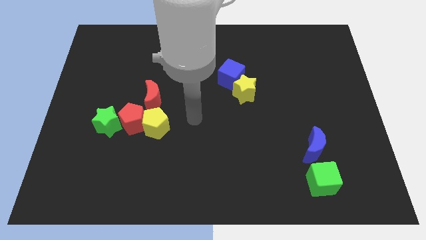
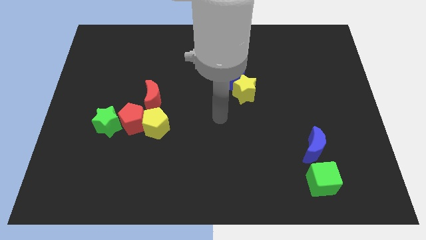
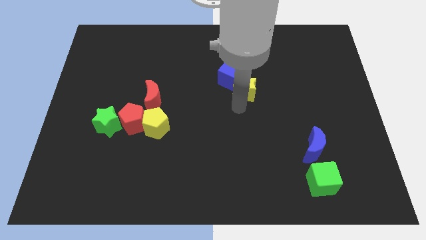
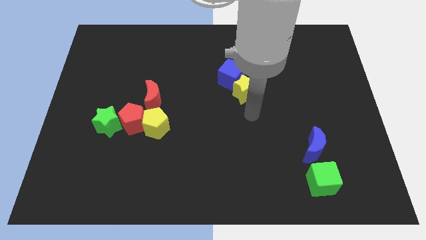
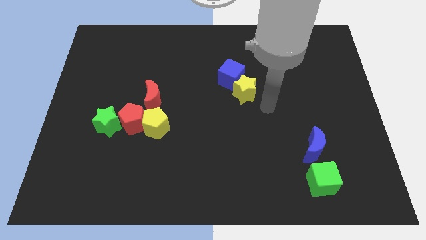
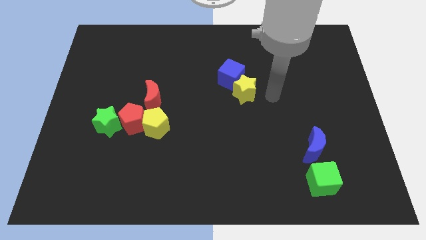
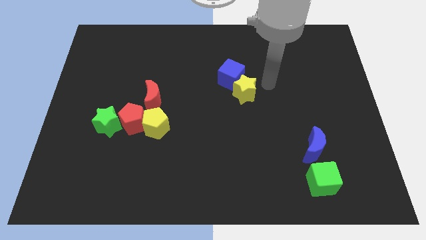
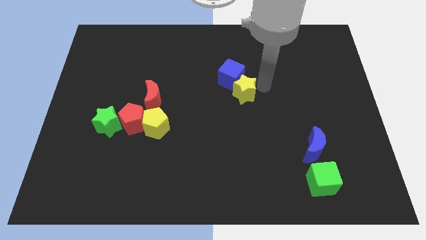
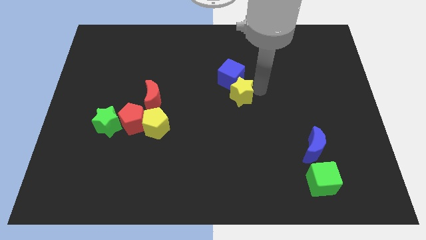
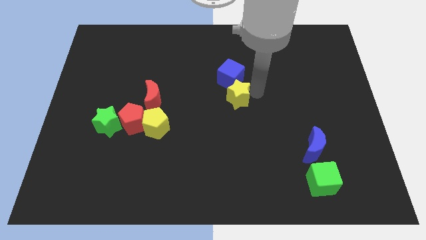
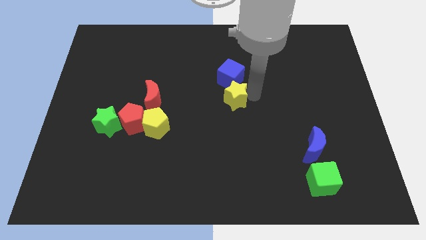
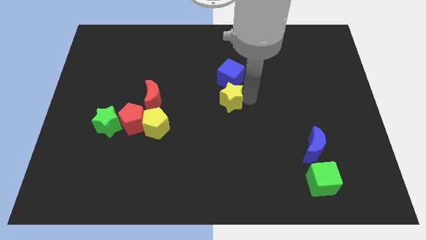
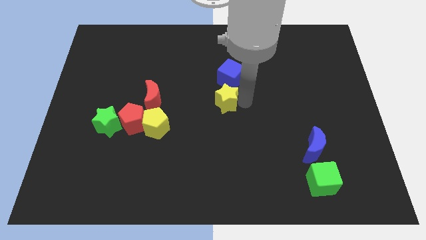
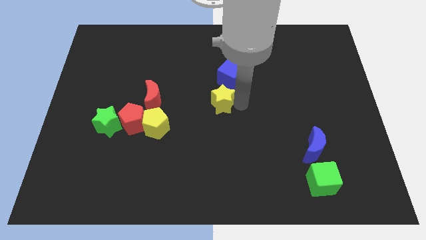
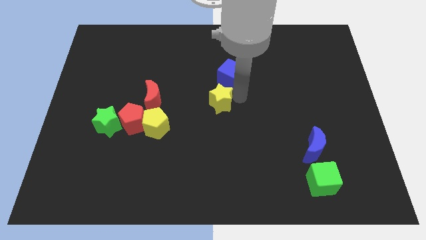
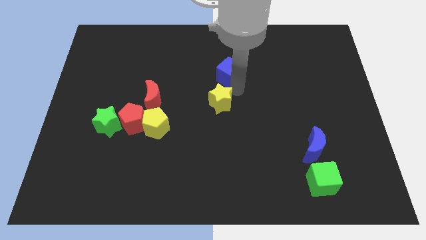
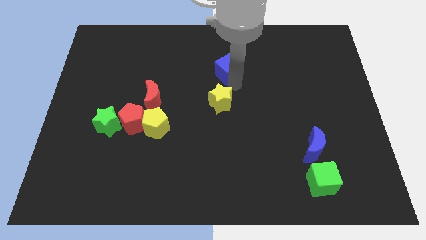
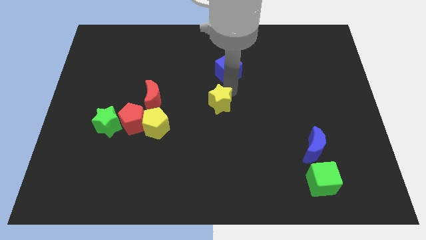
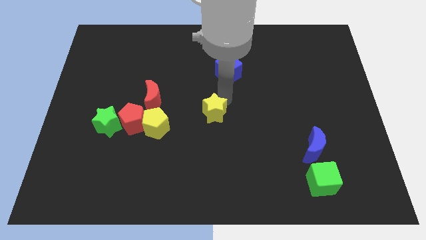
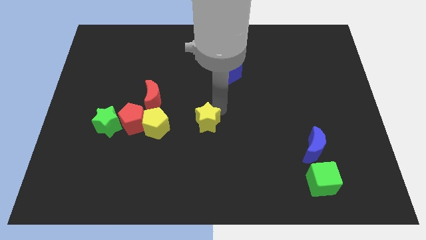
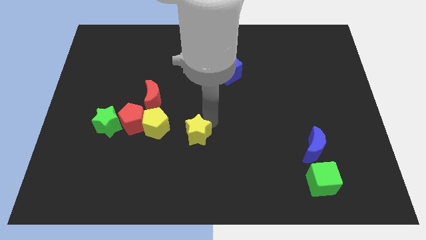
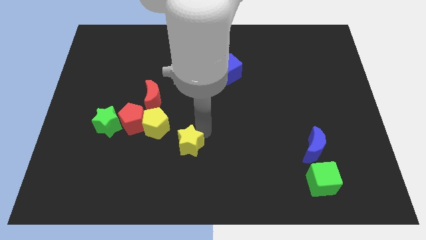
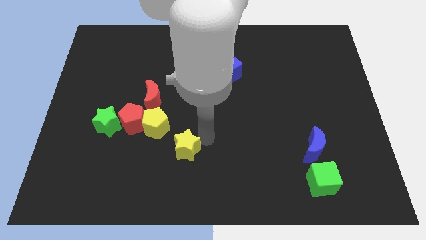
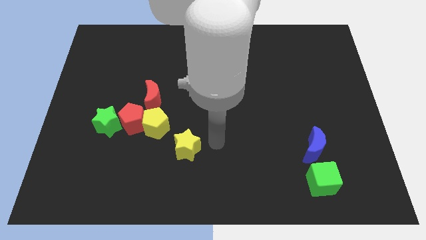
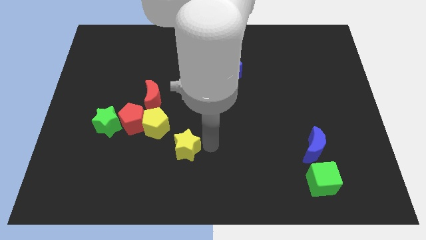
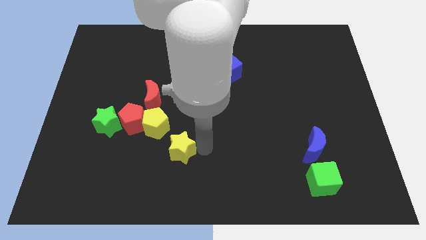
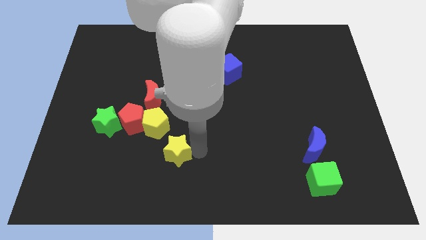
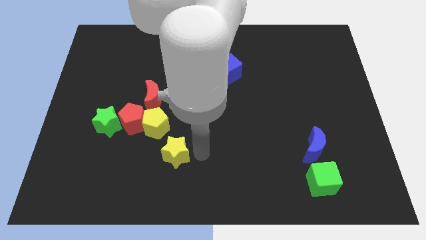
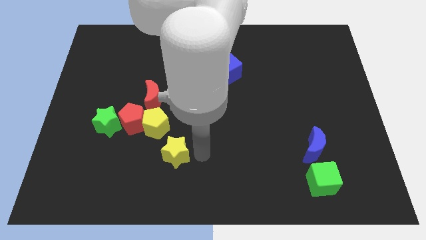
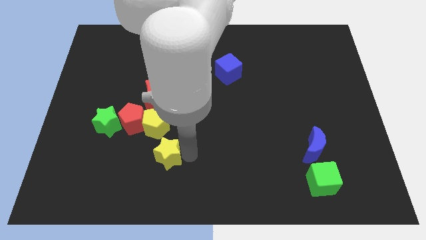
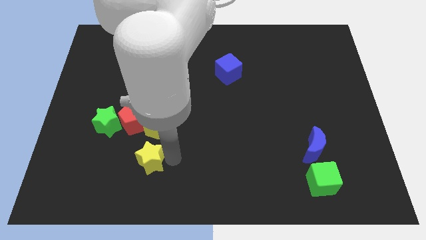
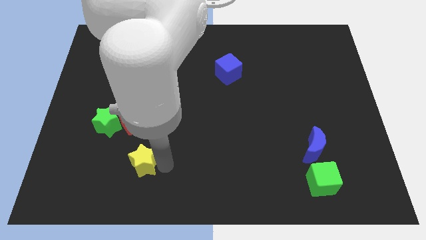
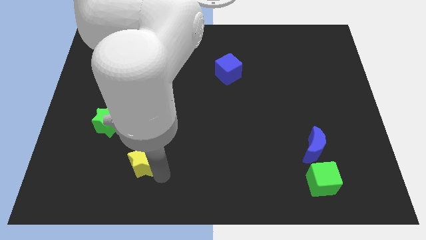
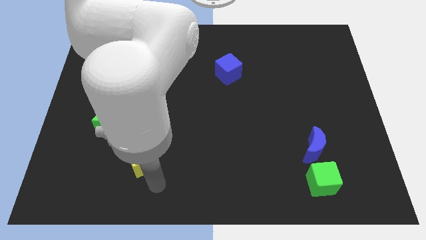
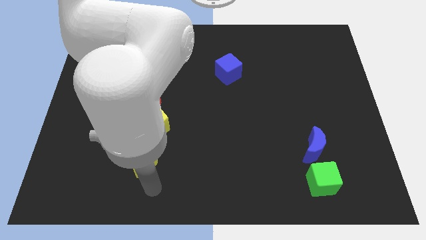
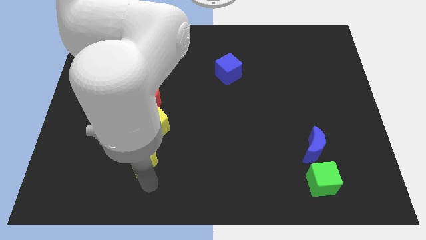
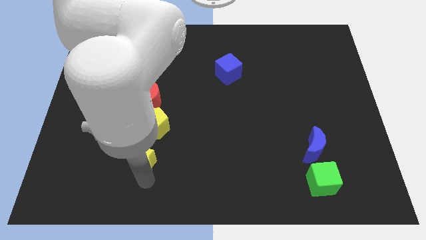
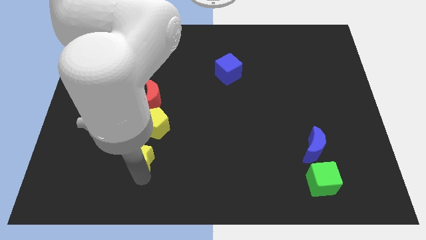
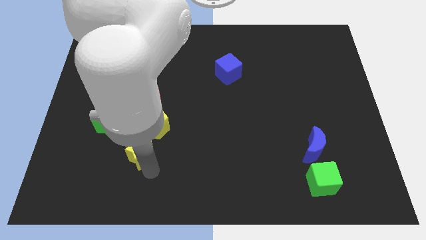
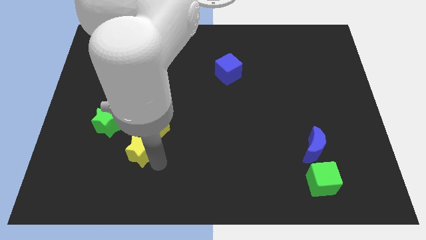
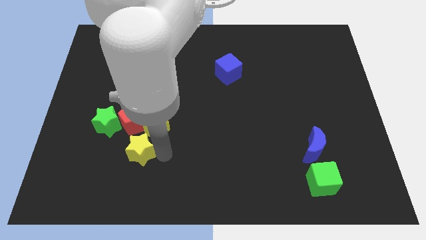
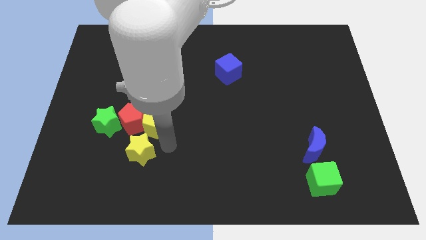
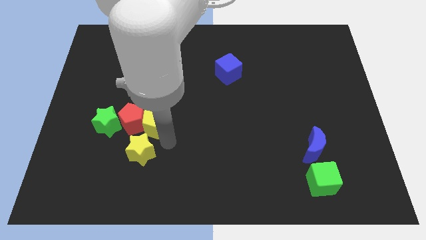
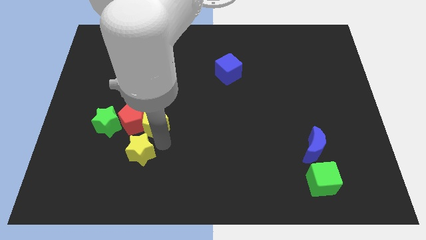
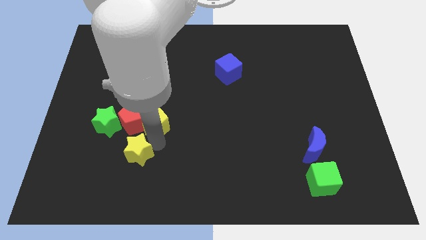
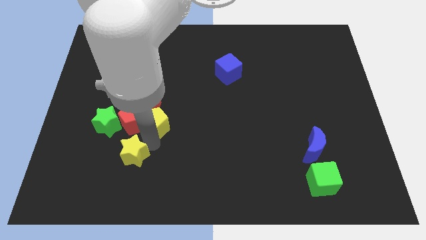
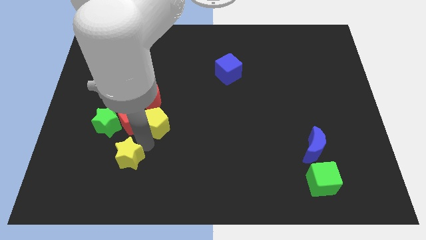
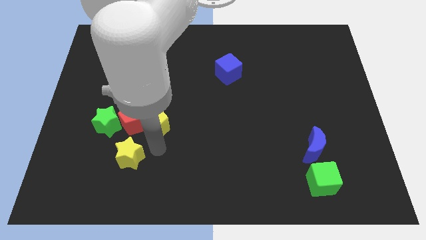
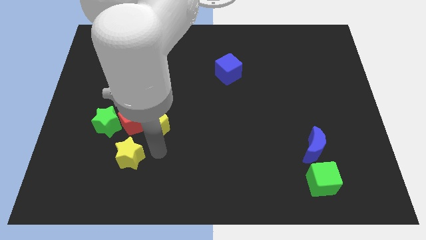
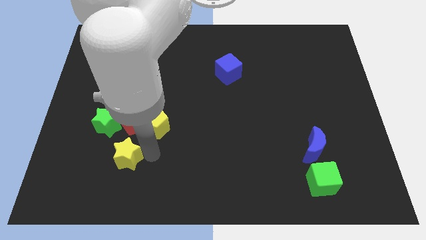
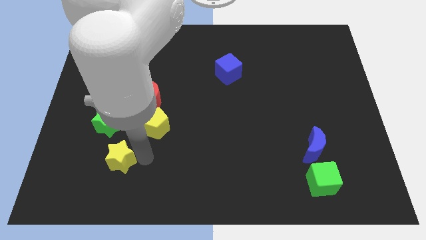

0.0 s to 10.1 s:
move the yellow star to the bottom of the green star

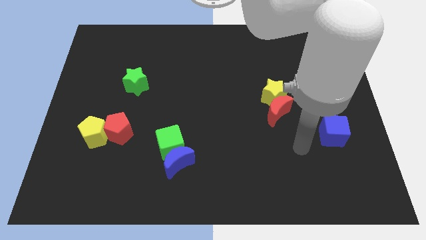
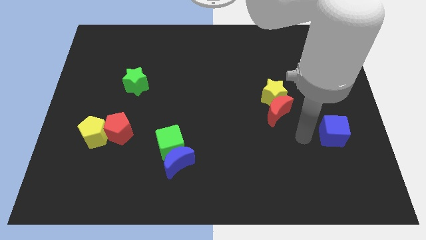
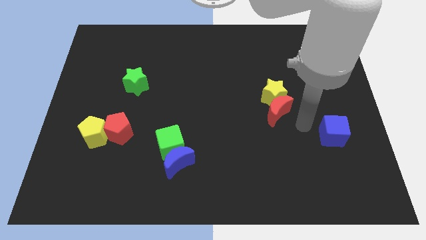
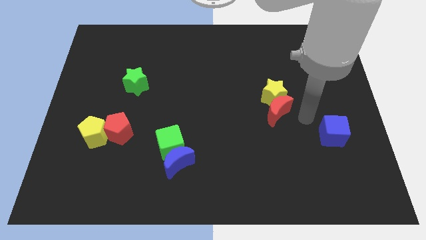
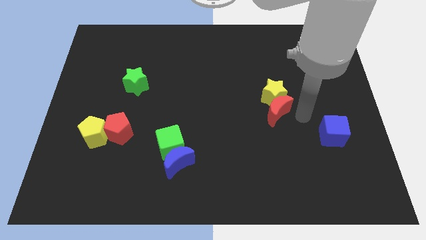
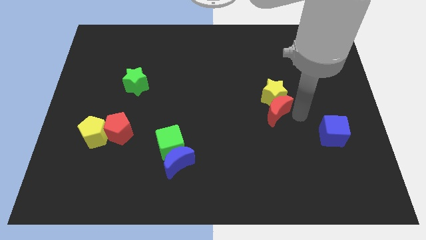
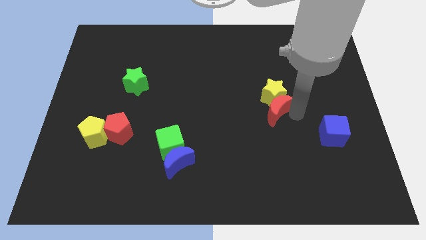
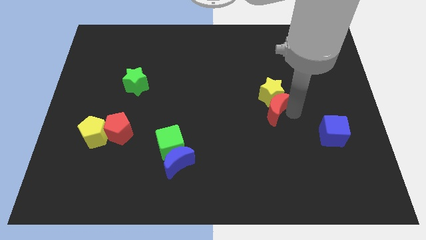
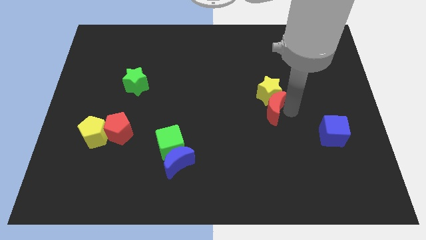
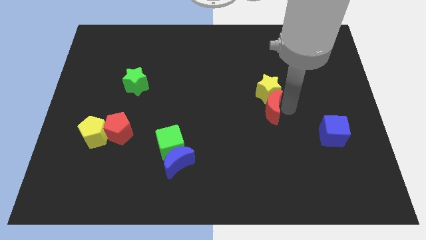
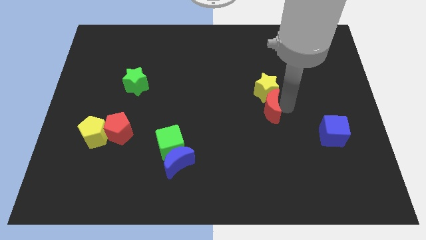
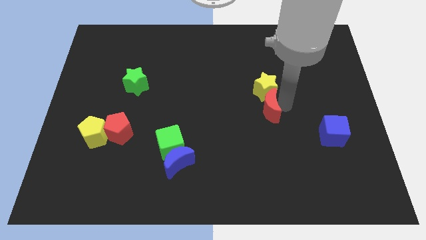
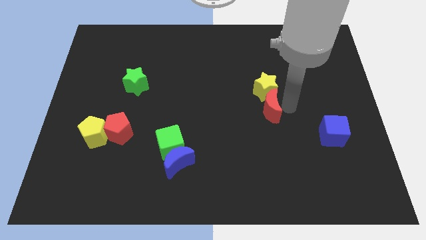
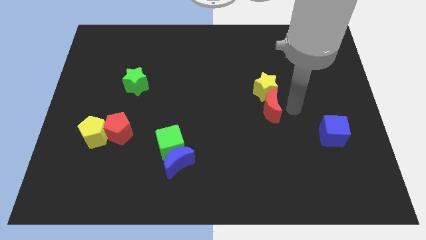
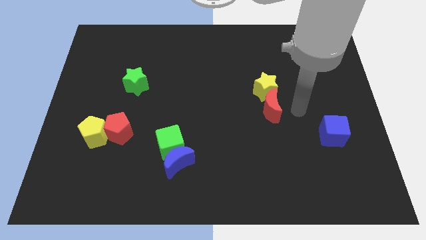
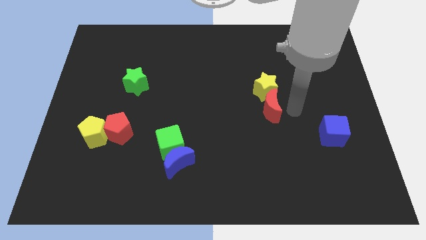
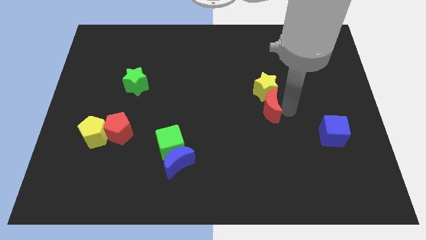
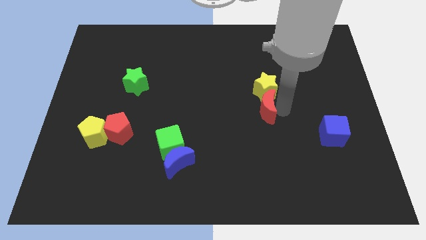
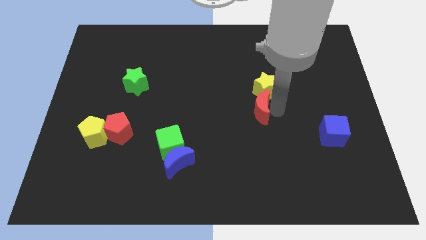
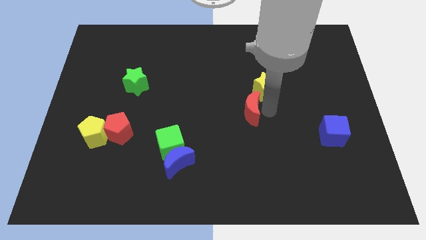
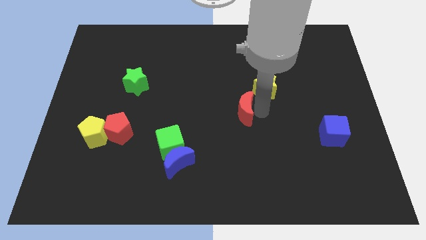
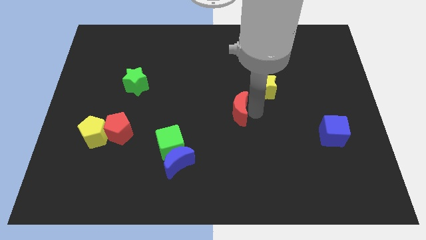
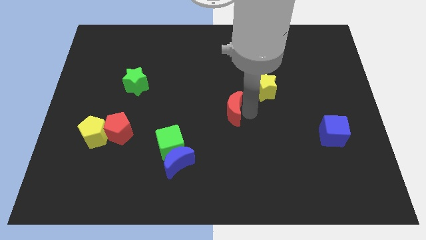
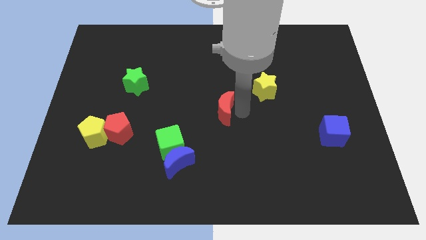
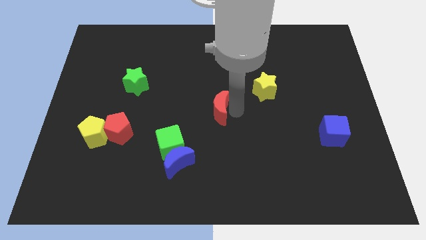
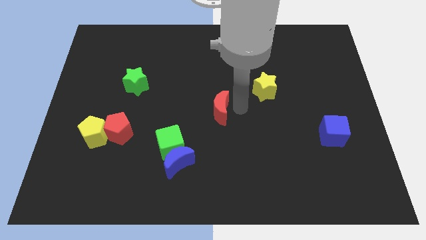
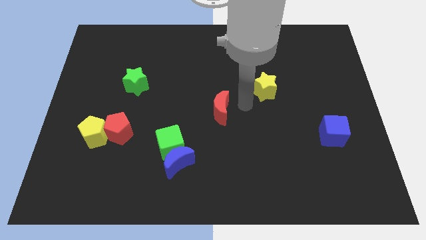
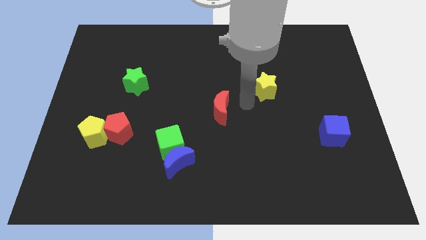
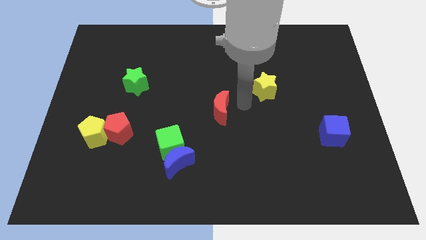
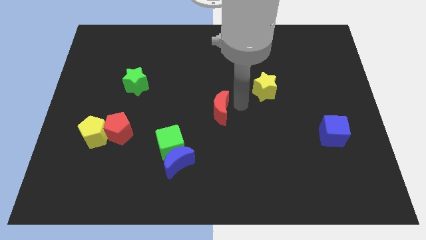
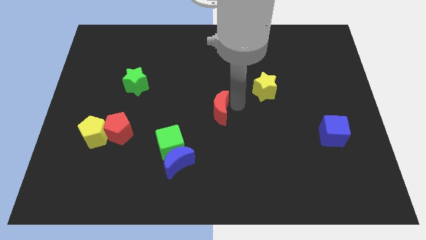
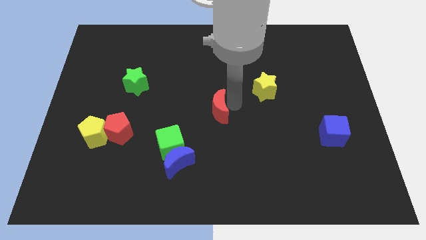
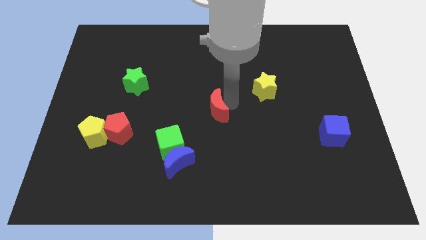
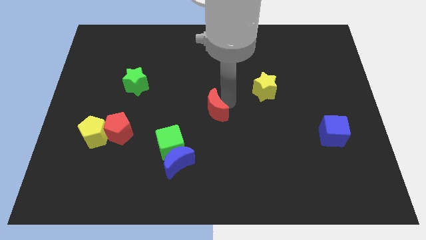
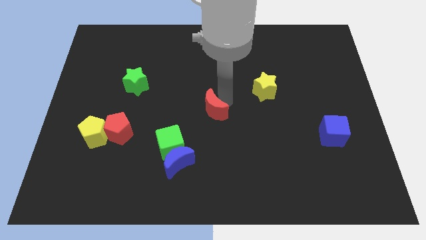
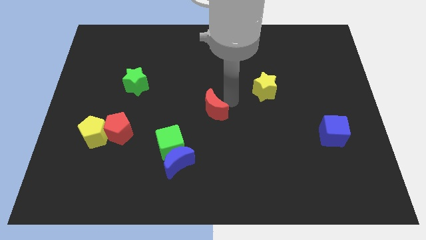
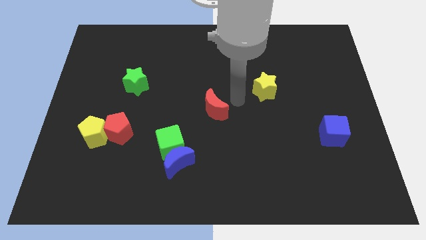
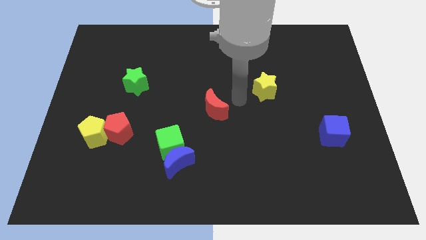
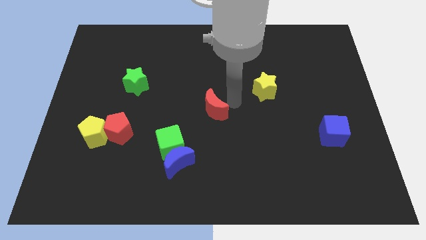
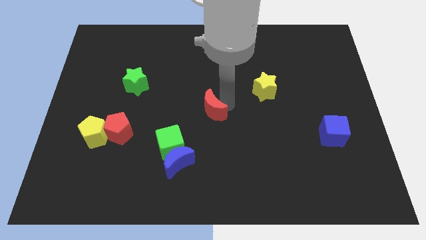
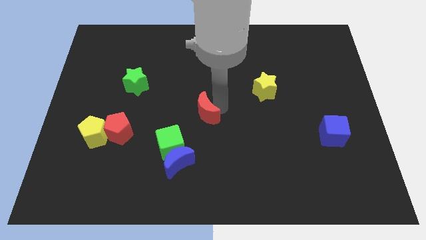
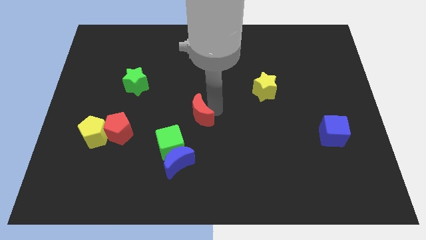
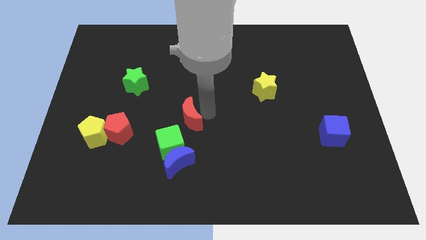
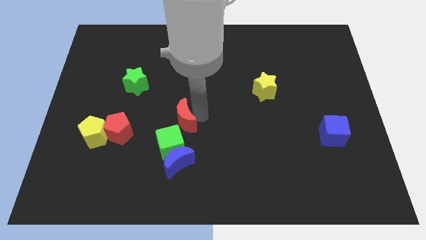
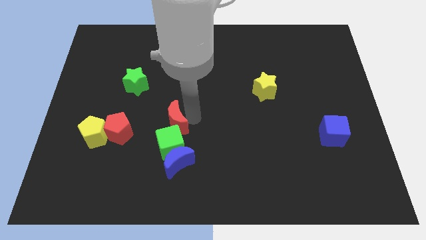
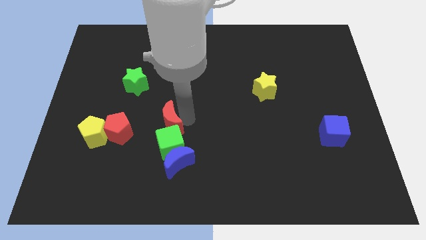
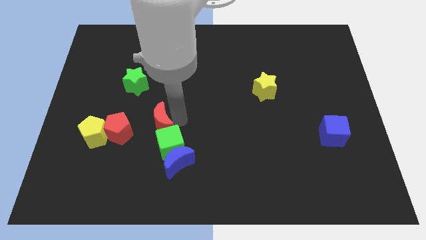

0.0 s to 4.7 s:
push the red moon to the right of the yellow pentagon
